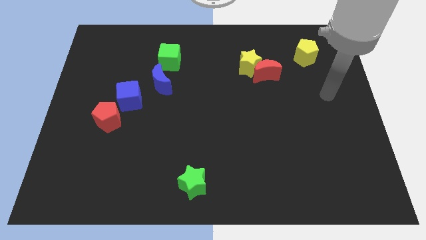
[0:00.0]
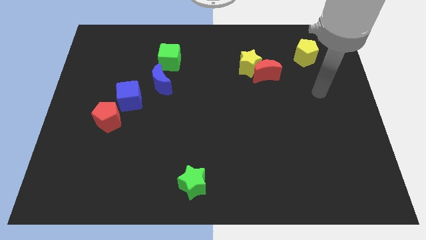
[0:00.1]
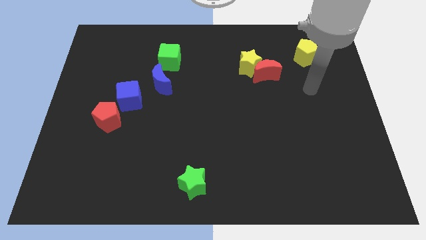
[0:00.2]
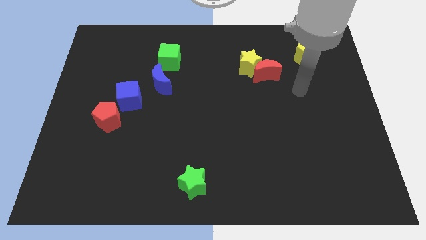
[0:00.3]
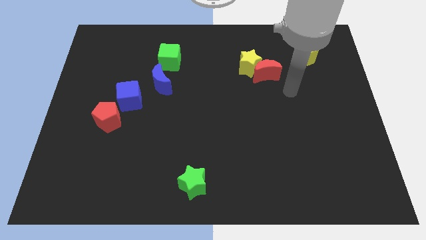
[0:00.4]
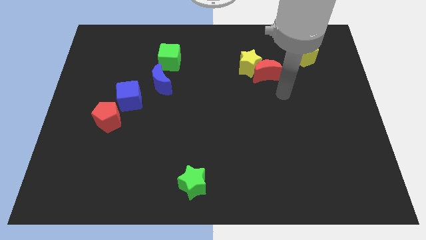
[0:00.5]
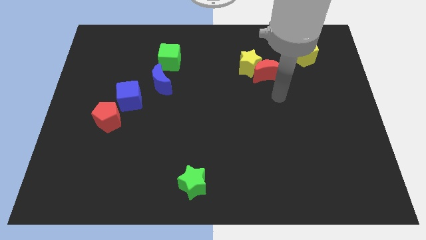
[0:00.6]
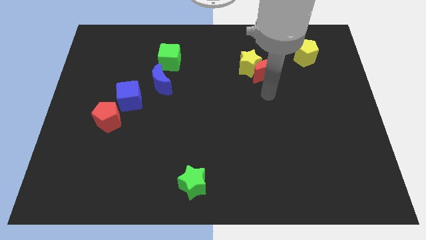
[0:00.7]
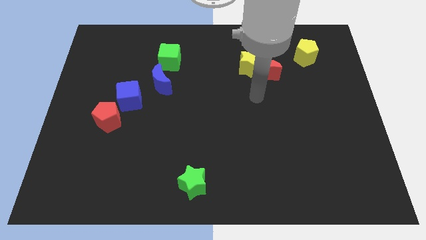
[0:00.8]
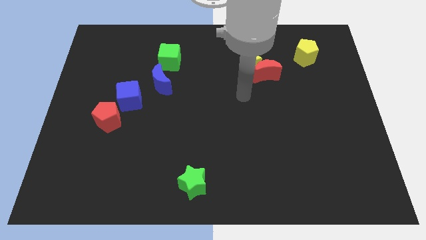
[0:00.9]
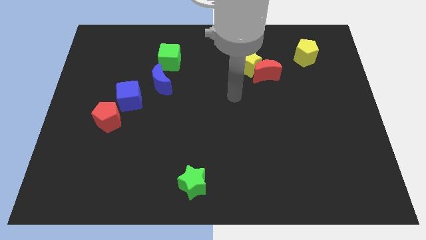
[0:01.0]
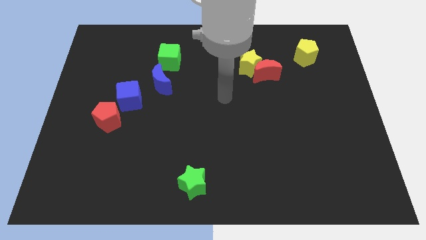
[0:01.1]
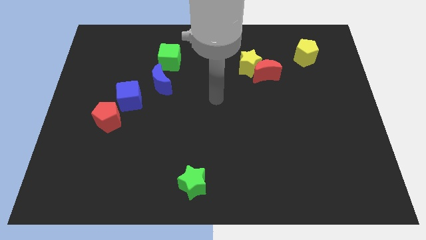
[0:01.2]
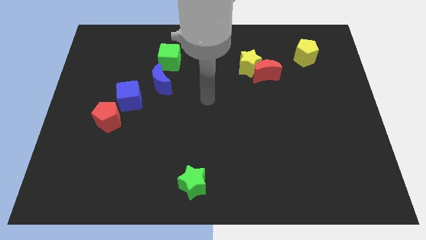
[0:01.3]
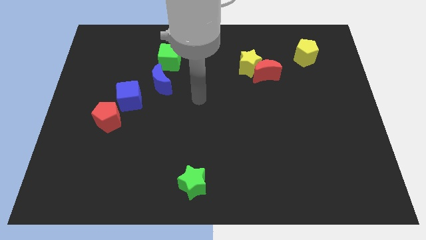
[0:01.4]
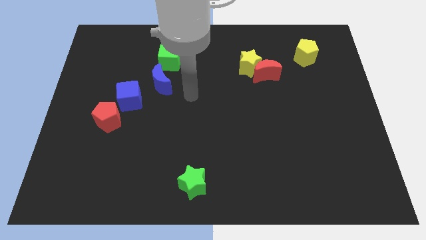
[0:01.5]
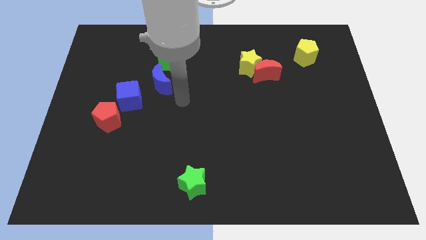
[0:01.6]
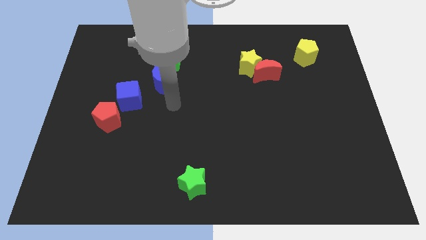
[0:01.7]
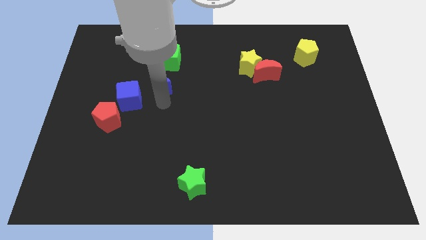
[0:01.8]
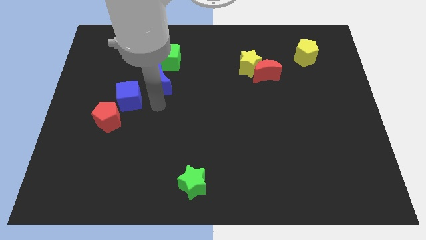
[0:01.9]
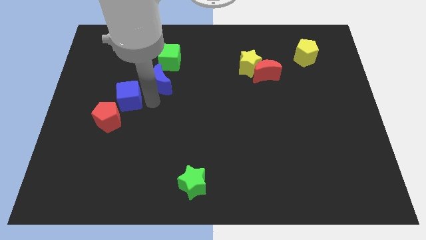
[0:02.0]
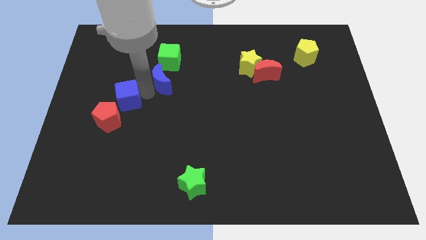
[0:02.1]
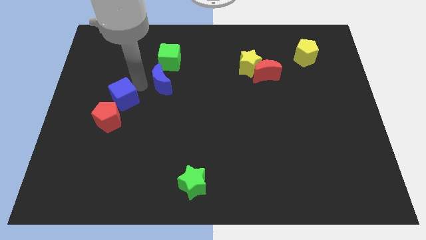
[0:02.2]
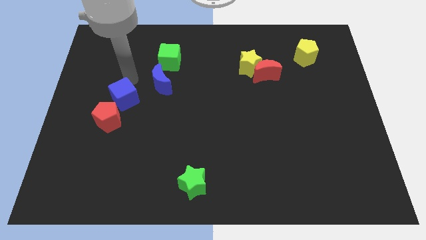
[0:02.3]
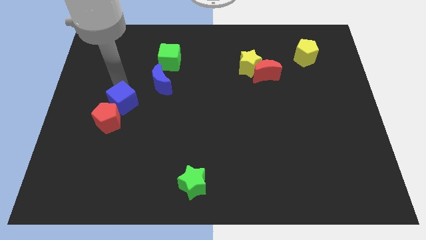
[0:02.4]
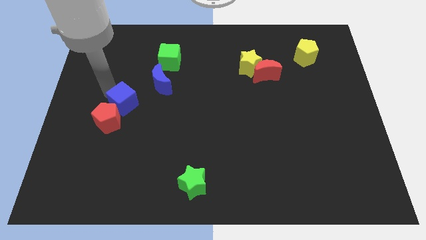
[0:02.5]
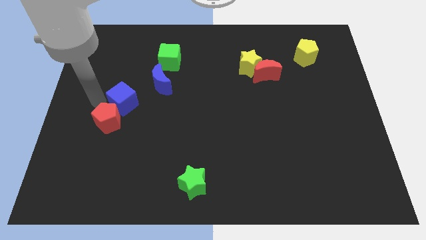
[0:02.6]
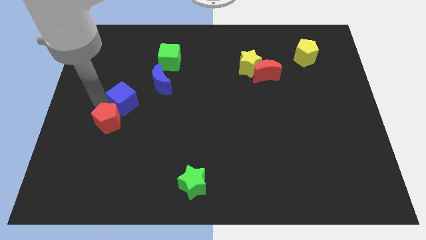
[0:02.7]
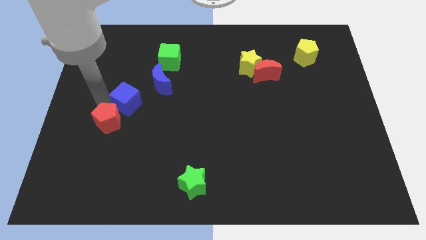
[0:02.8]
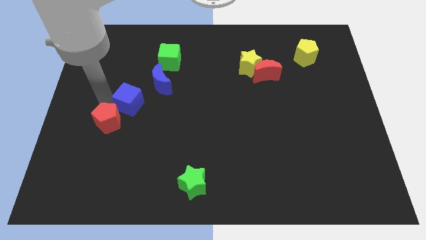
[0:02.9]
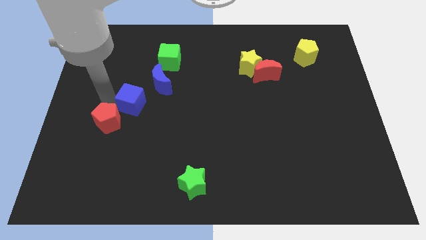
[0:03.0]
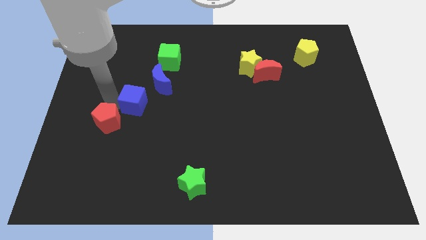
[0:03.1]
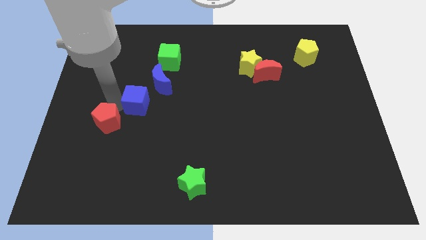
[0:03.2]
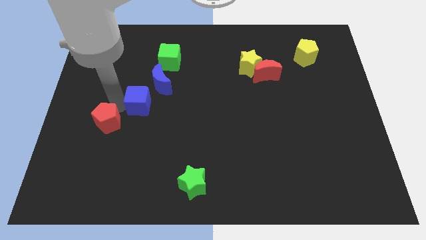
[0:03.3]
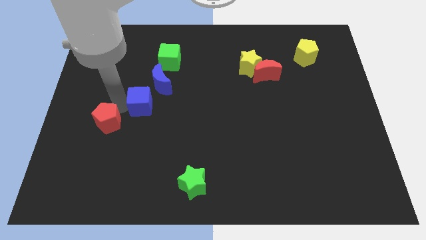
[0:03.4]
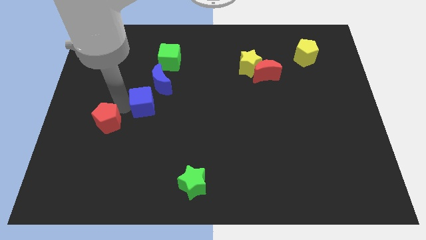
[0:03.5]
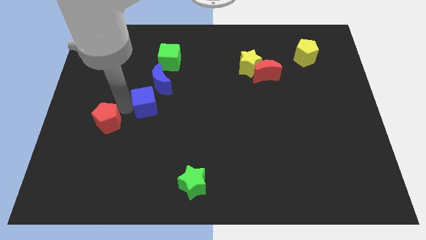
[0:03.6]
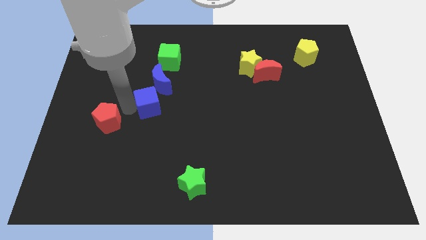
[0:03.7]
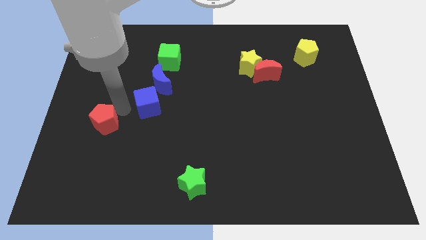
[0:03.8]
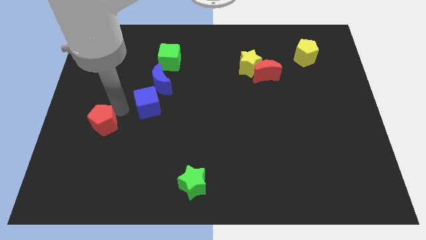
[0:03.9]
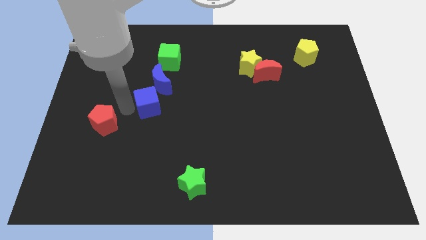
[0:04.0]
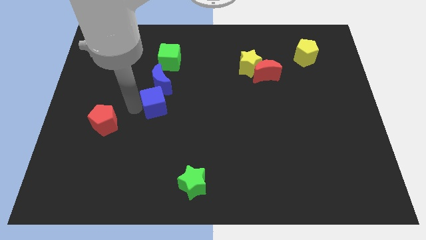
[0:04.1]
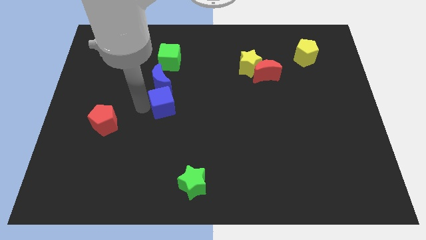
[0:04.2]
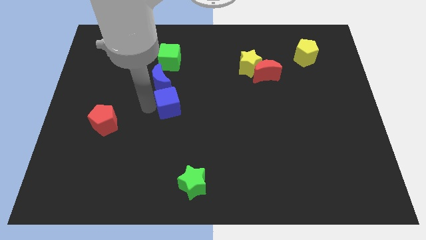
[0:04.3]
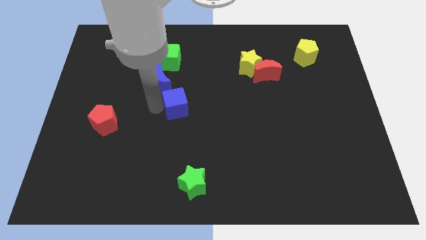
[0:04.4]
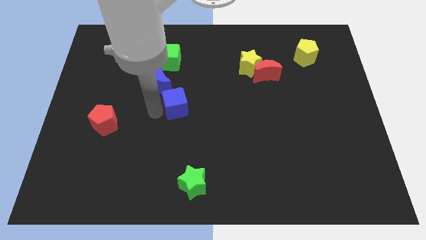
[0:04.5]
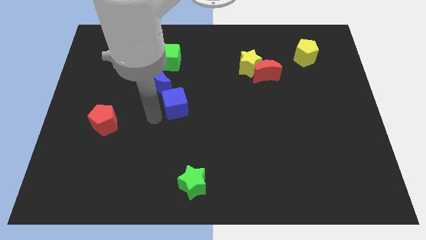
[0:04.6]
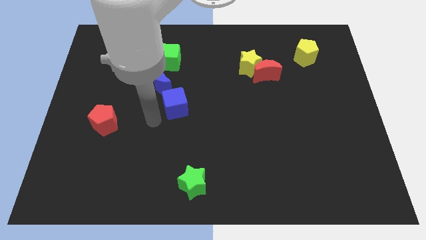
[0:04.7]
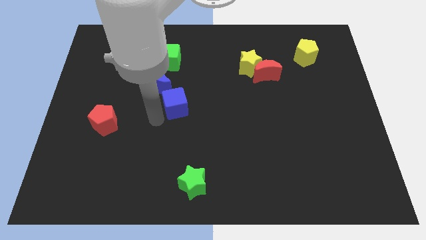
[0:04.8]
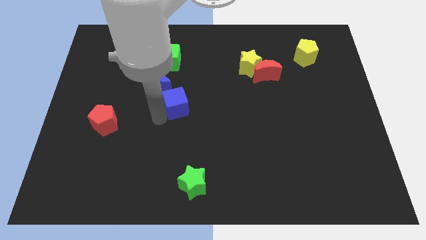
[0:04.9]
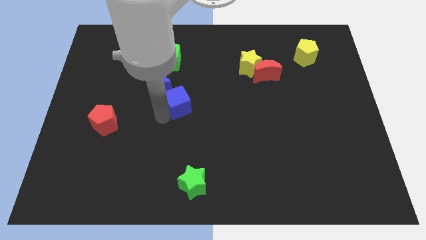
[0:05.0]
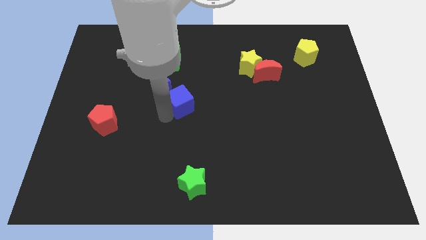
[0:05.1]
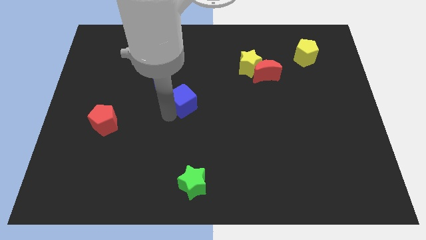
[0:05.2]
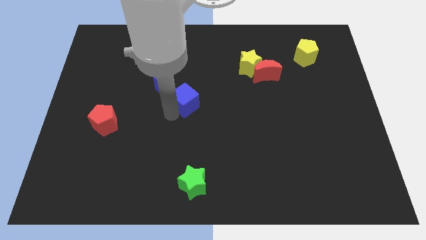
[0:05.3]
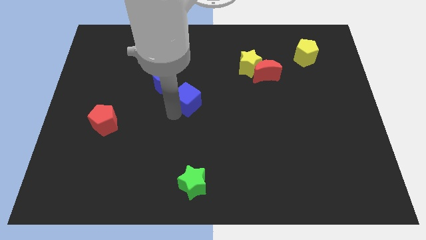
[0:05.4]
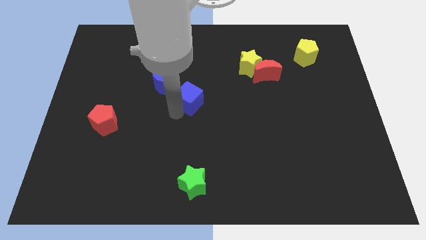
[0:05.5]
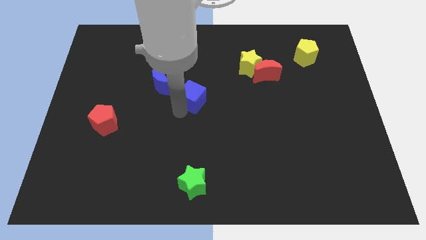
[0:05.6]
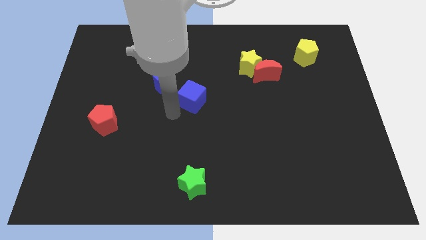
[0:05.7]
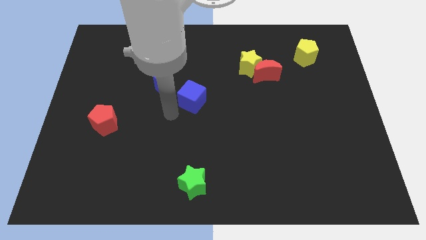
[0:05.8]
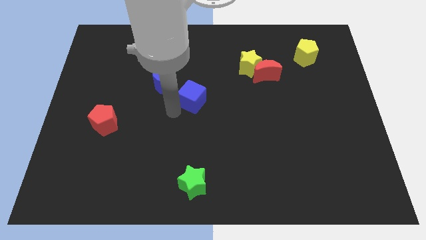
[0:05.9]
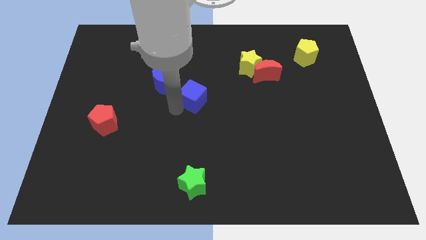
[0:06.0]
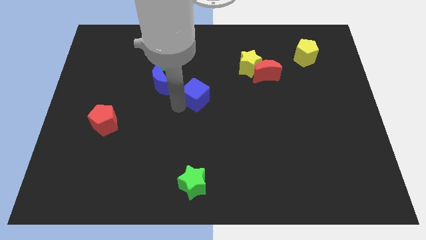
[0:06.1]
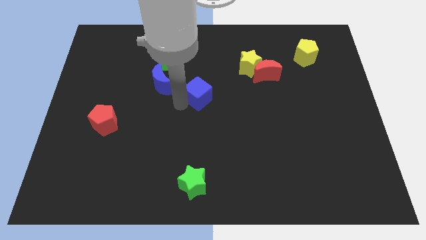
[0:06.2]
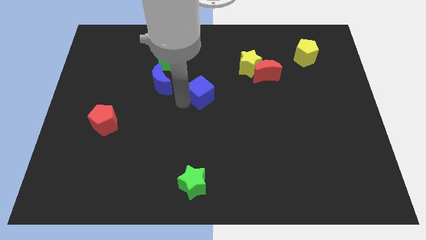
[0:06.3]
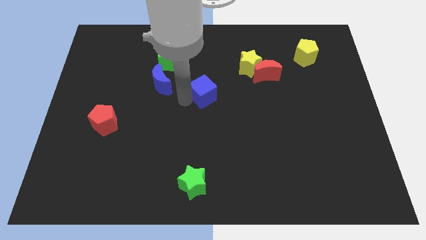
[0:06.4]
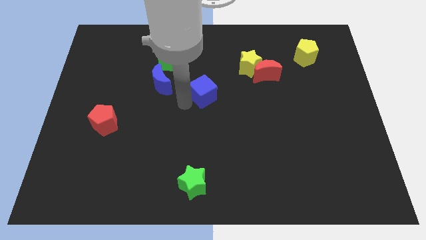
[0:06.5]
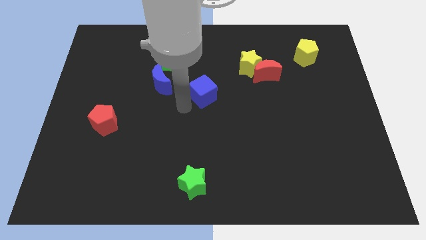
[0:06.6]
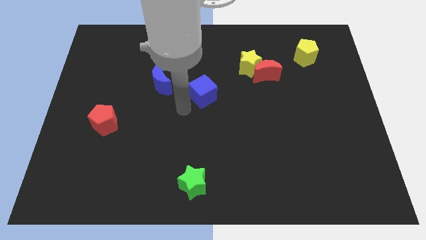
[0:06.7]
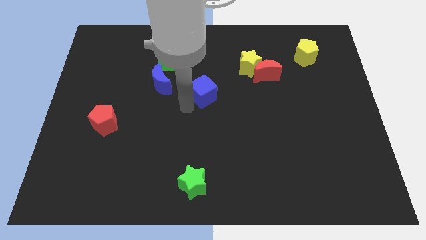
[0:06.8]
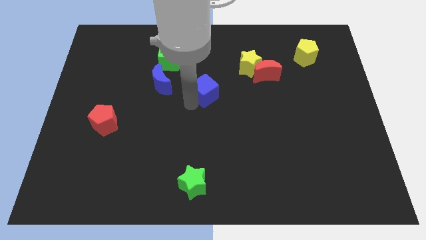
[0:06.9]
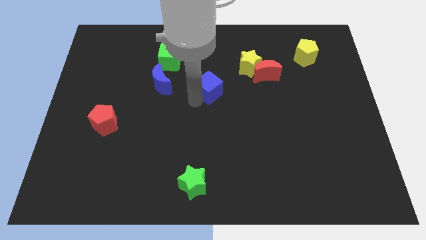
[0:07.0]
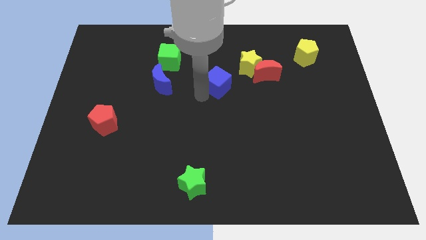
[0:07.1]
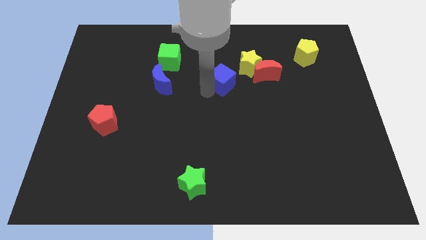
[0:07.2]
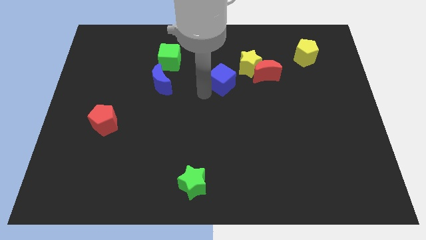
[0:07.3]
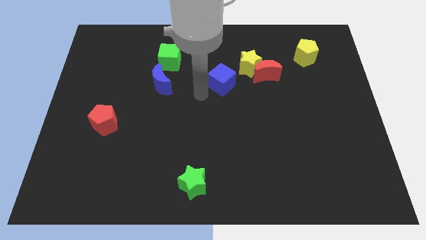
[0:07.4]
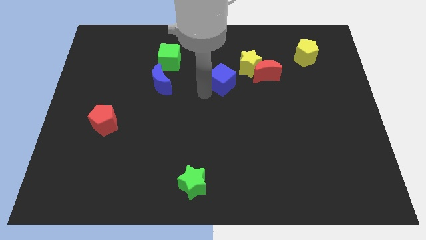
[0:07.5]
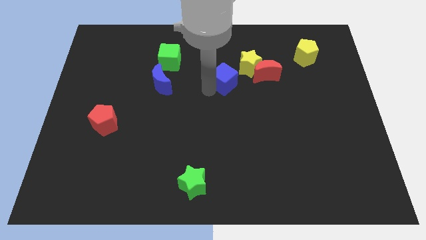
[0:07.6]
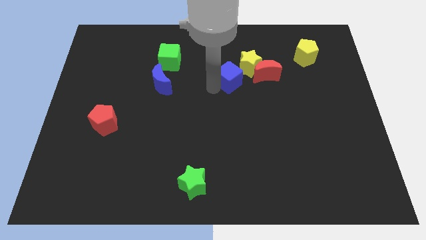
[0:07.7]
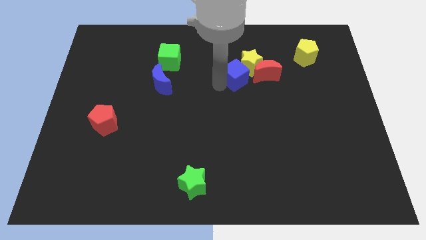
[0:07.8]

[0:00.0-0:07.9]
put the blue cube towards the yellow star

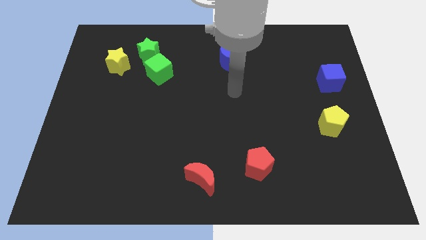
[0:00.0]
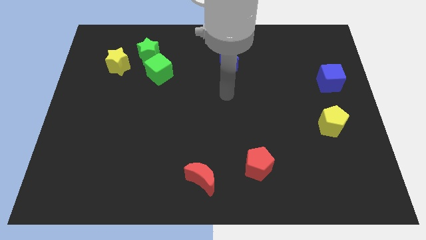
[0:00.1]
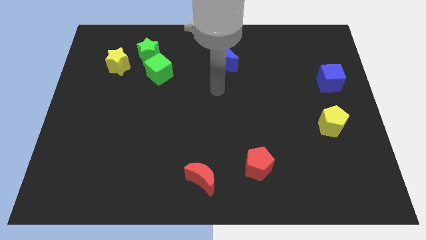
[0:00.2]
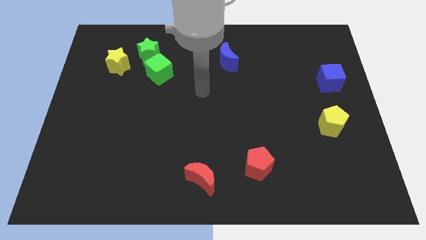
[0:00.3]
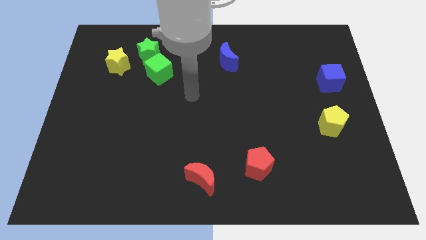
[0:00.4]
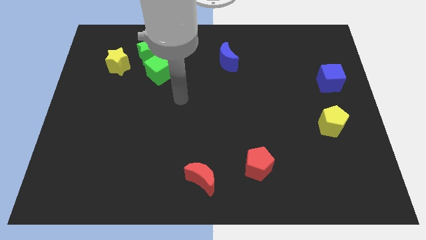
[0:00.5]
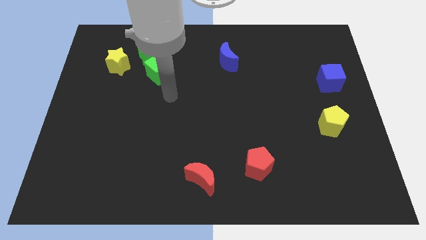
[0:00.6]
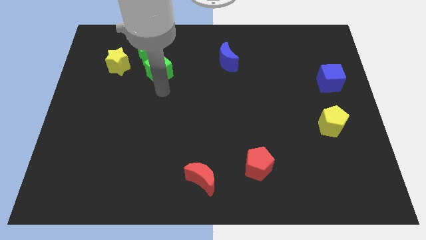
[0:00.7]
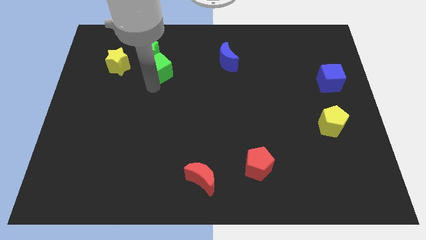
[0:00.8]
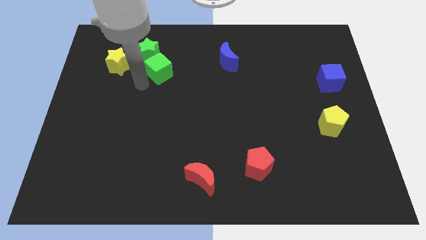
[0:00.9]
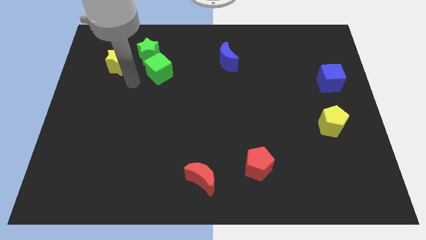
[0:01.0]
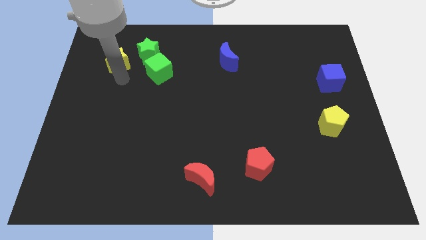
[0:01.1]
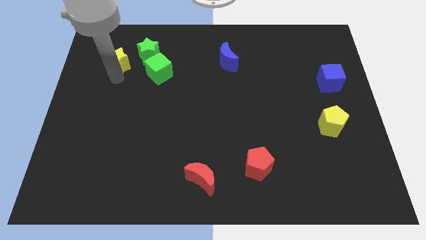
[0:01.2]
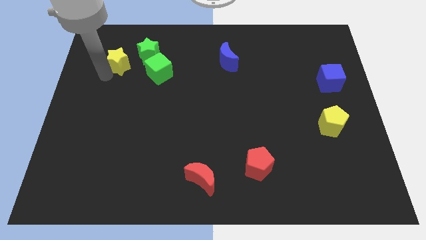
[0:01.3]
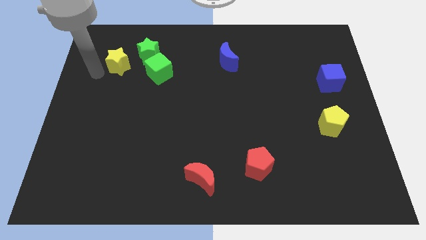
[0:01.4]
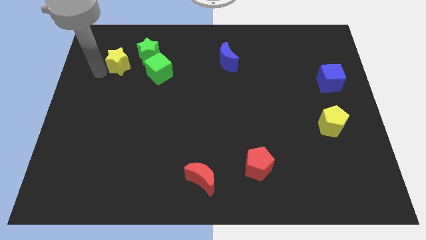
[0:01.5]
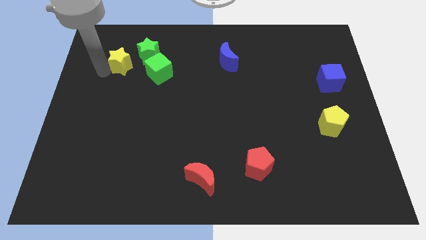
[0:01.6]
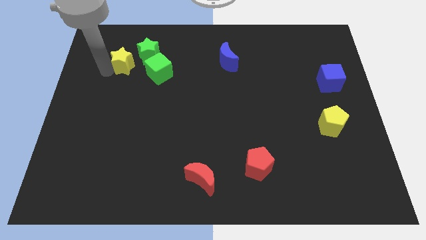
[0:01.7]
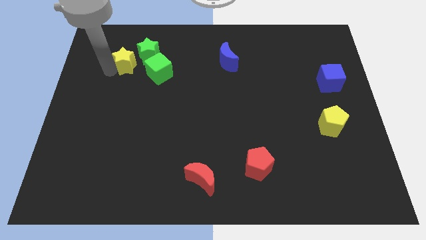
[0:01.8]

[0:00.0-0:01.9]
push the yellow star close to the green star
